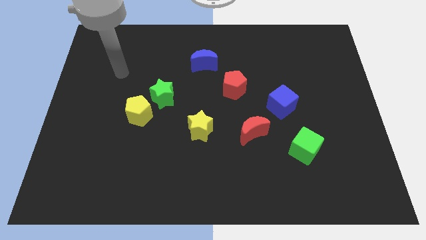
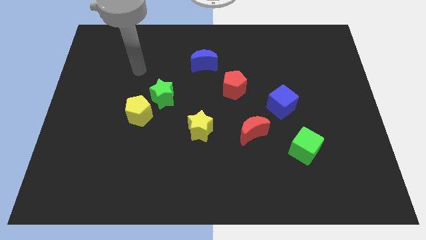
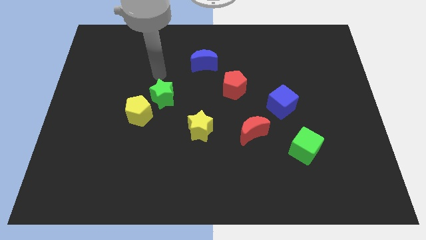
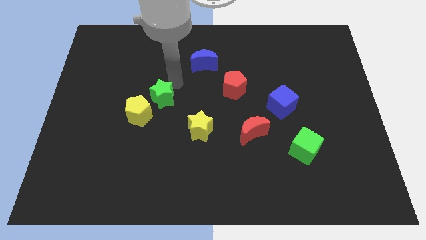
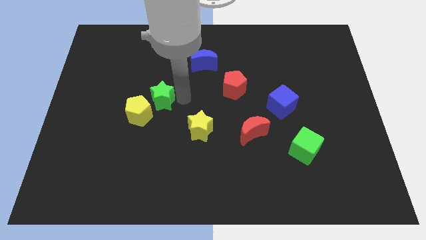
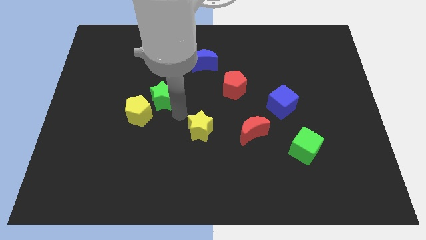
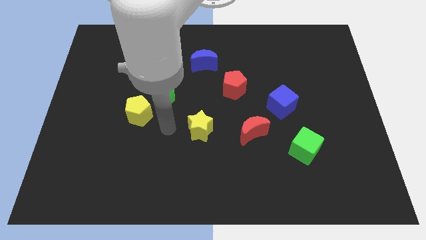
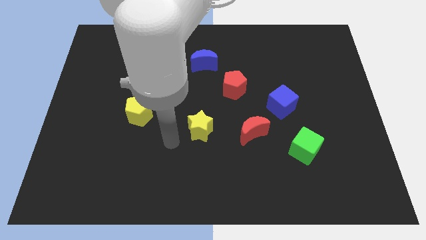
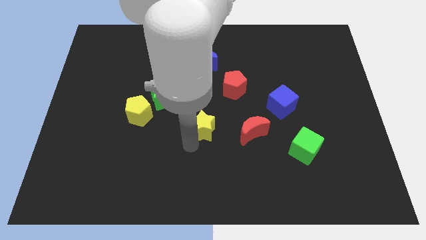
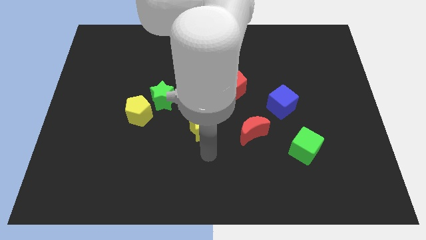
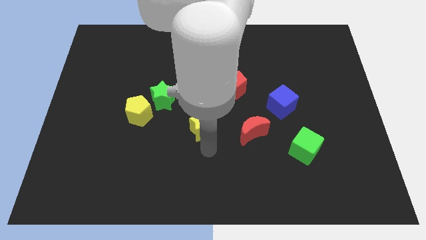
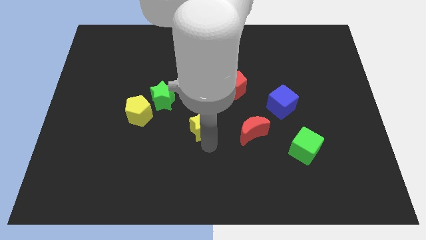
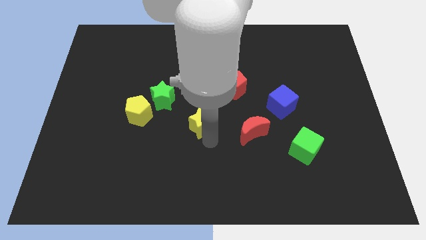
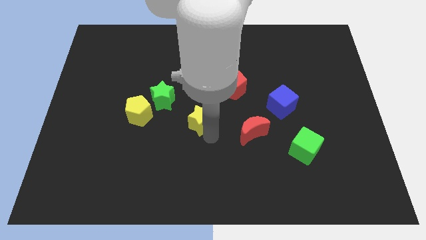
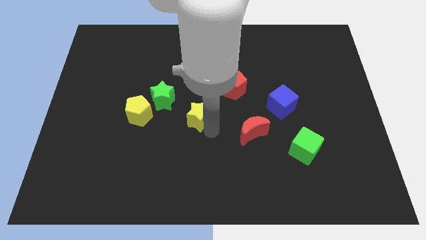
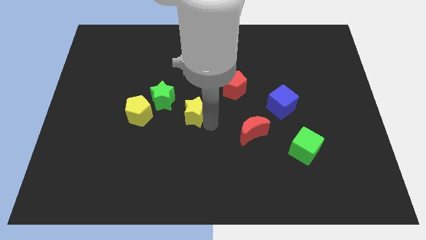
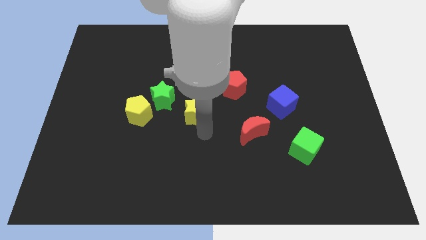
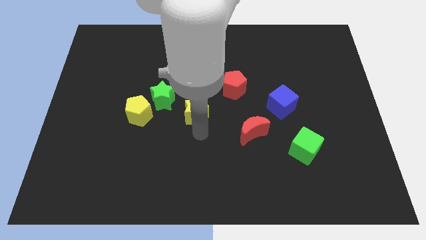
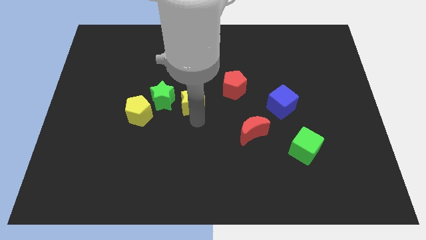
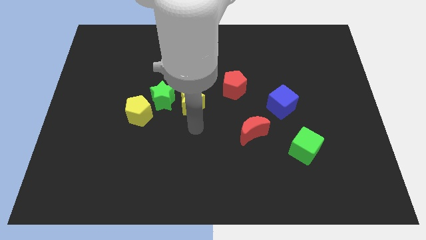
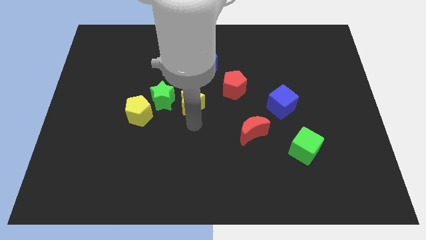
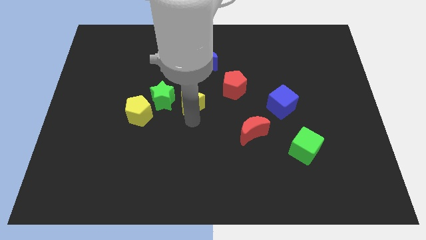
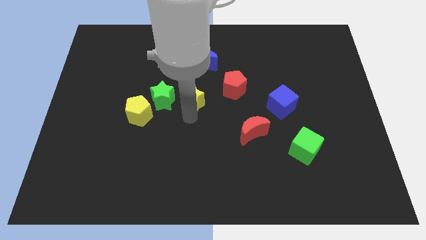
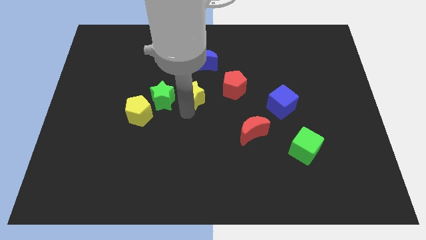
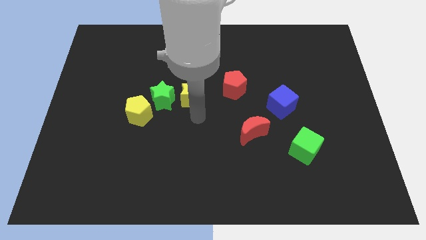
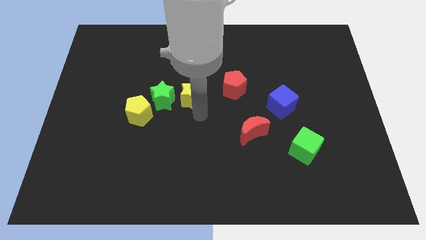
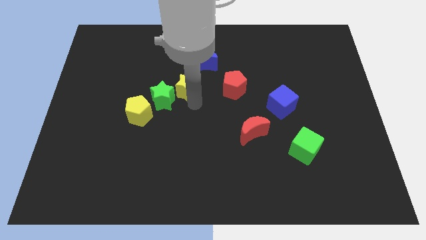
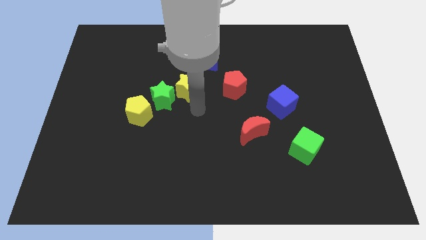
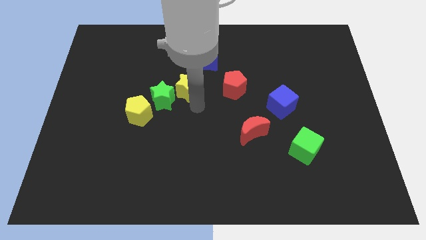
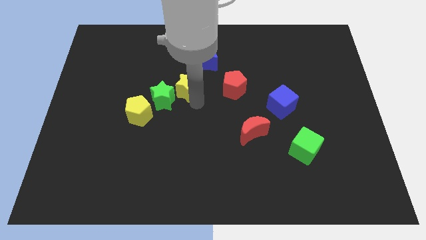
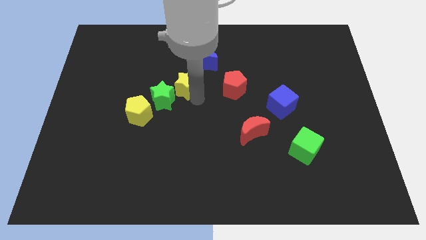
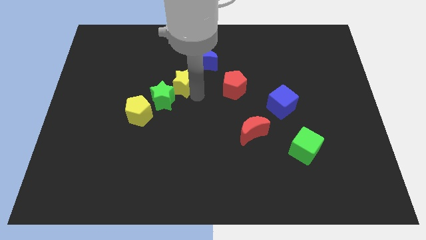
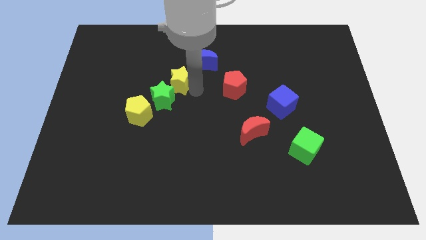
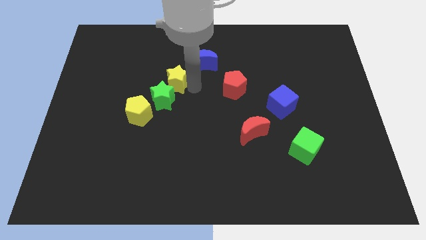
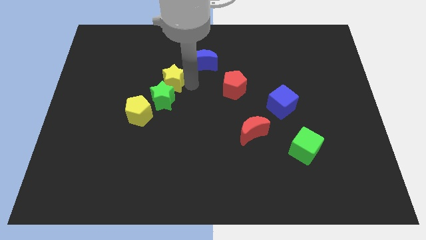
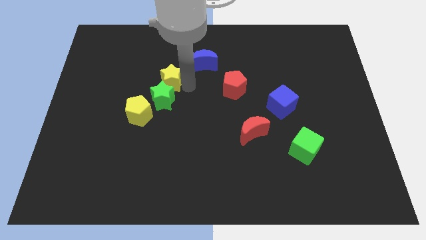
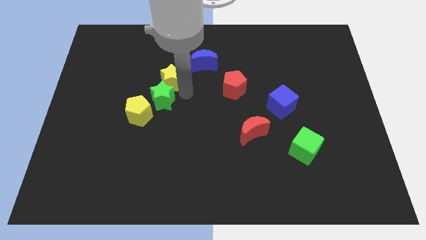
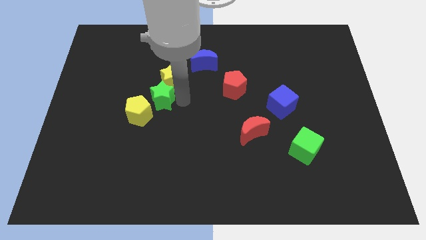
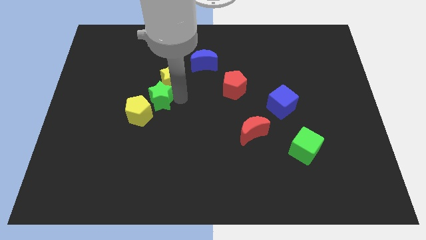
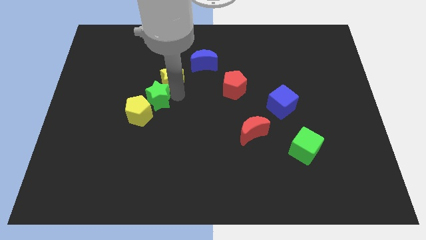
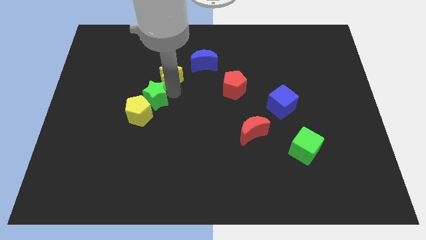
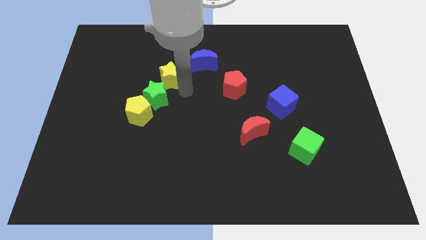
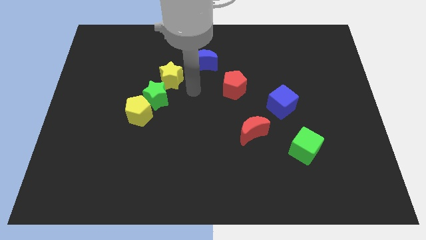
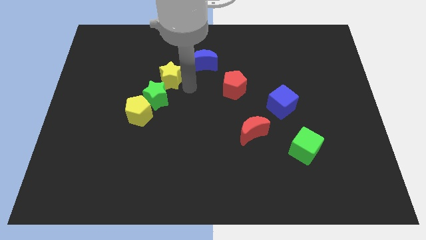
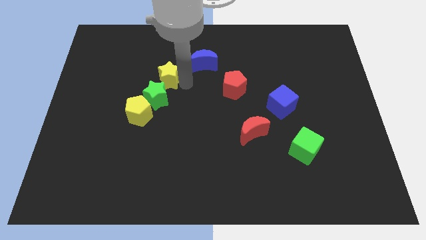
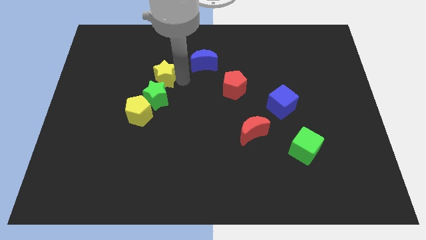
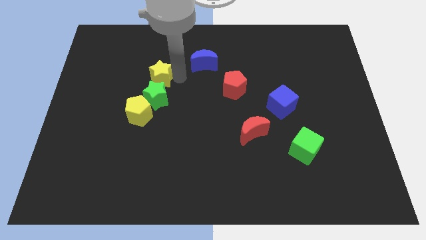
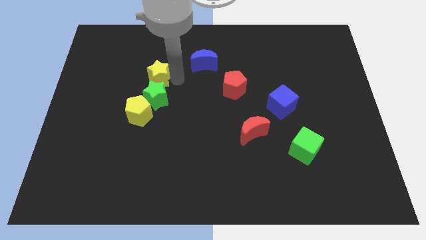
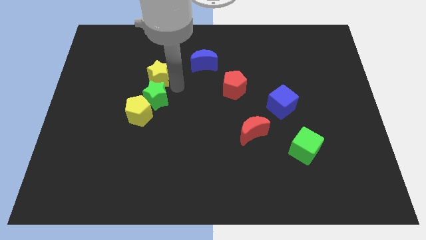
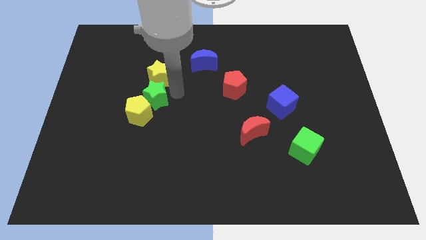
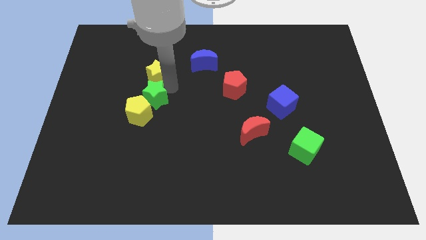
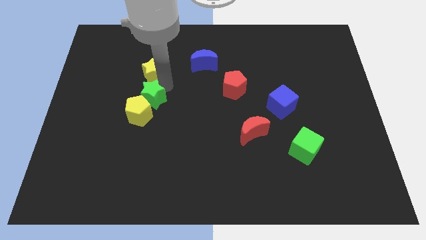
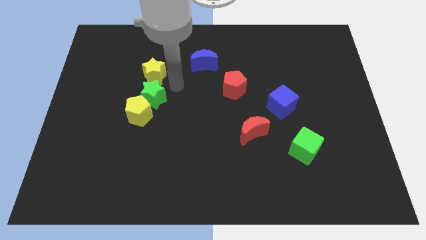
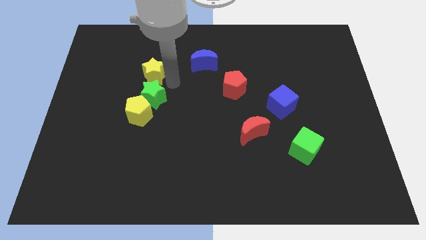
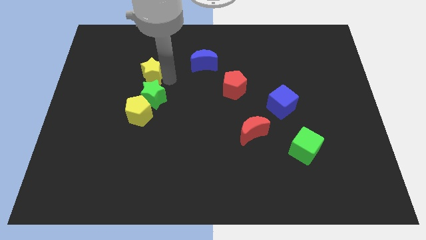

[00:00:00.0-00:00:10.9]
slide the yellow star up and to the left diagonally

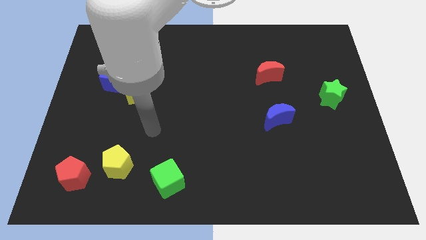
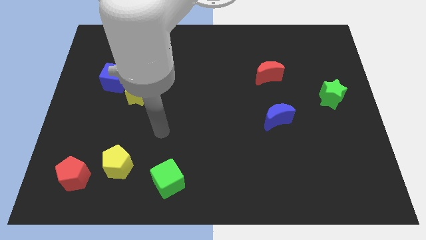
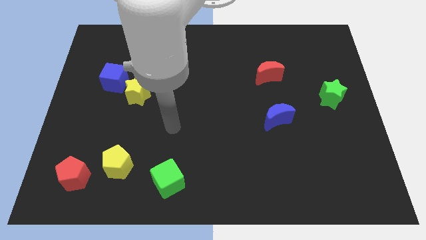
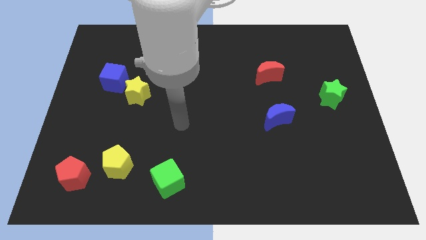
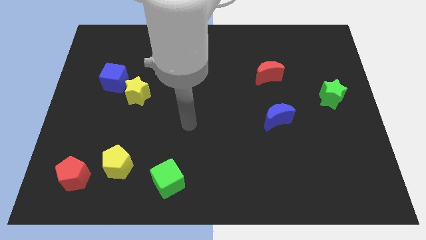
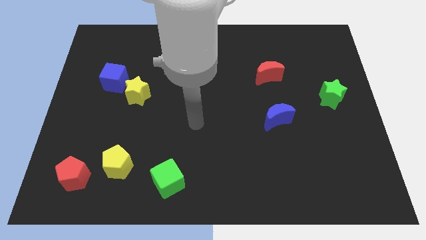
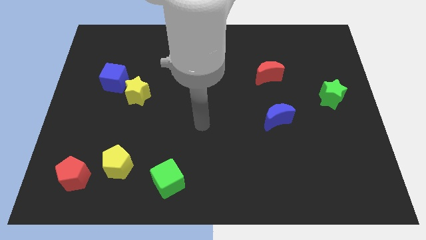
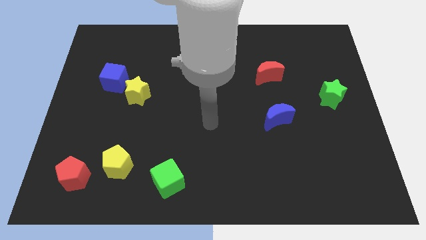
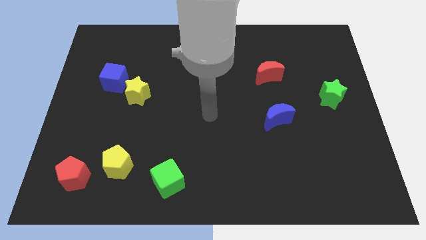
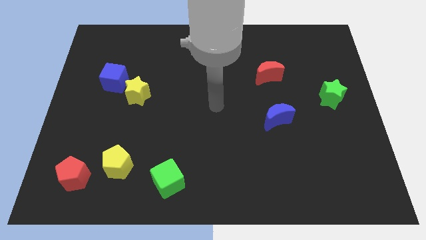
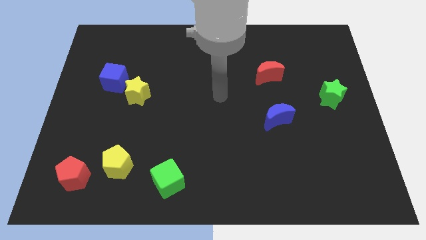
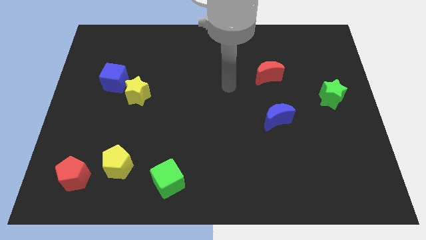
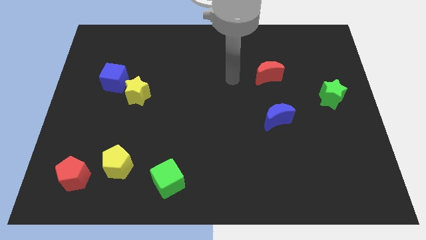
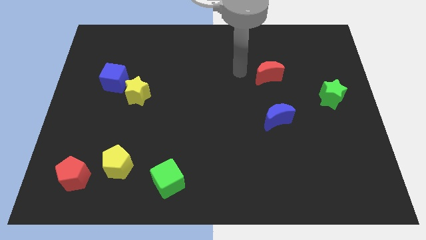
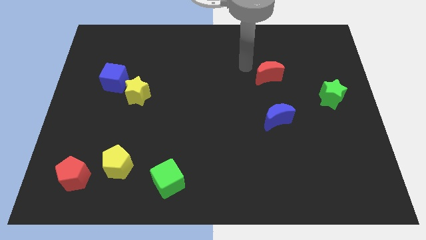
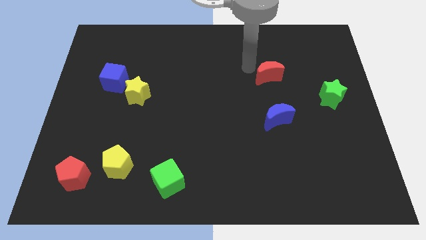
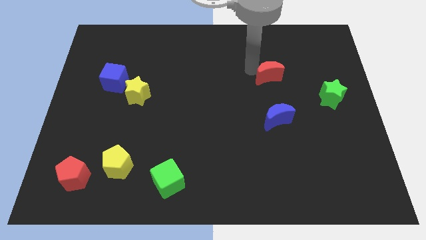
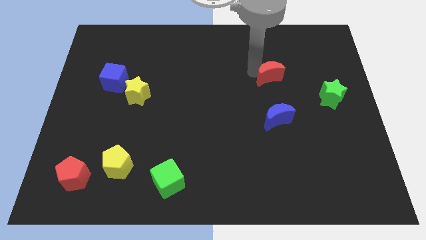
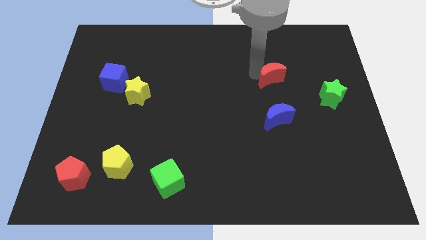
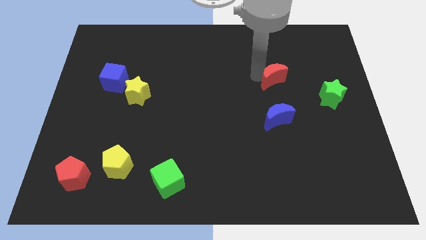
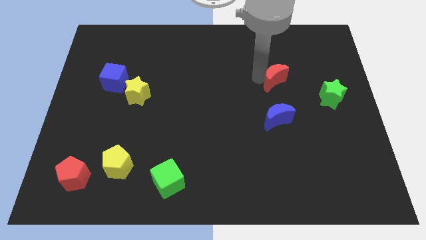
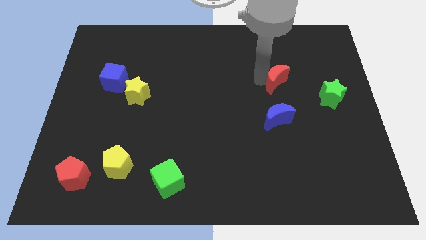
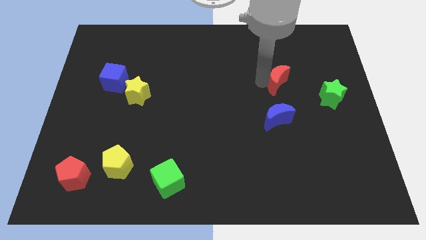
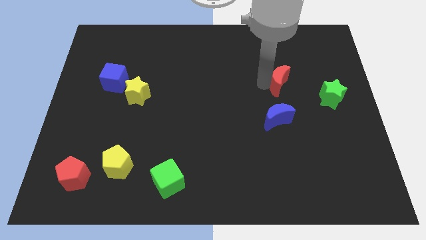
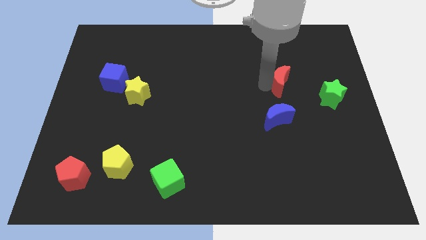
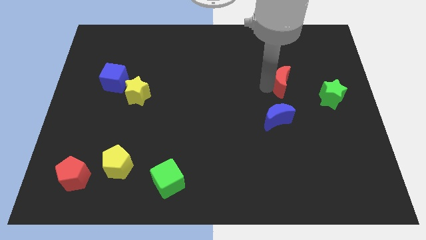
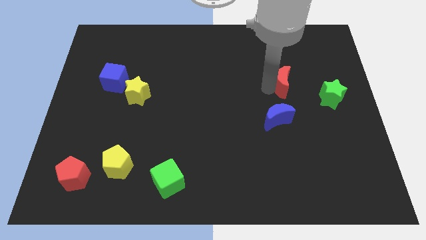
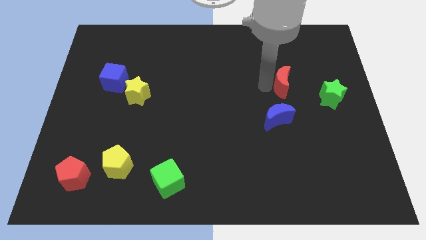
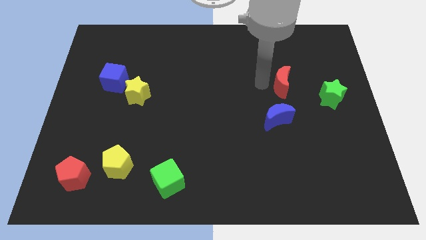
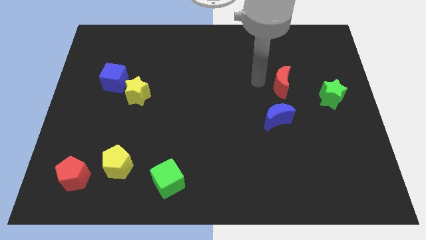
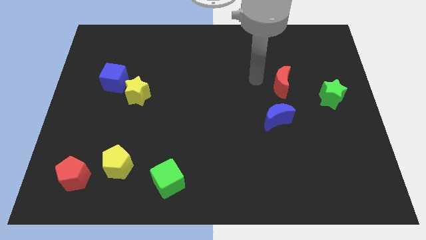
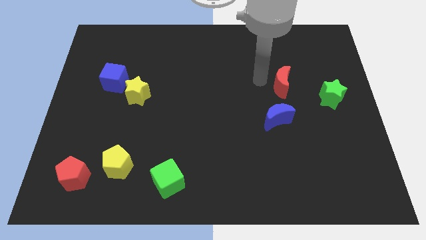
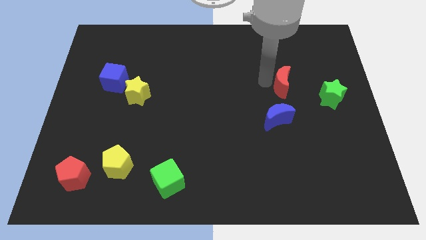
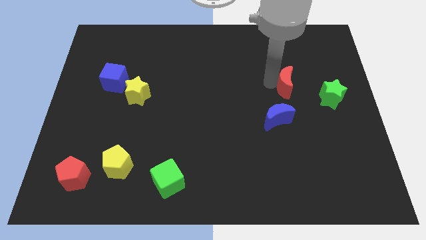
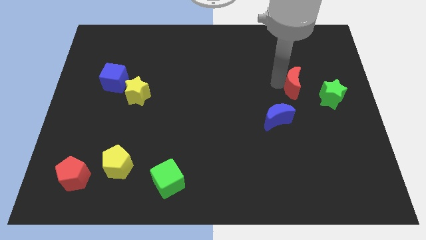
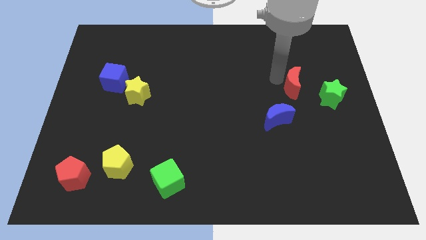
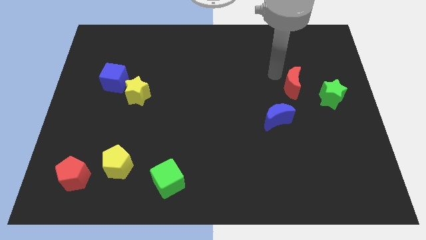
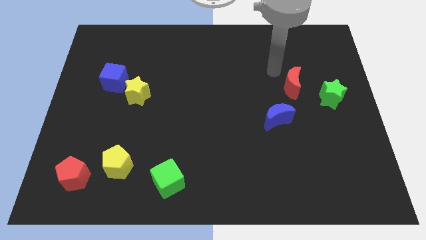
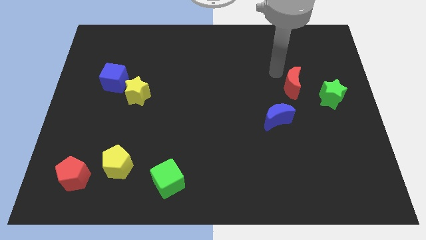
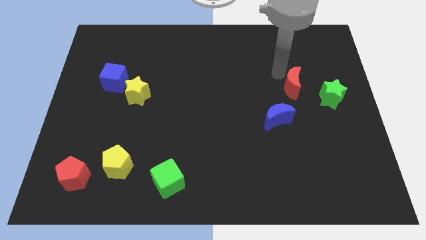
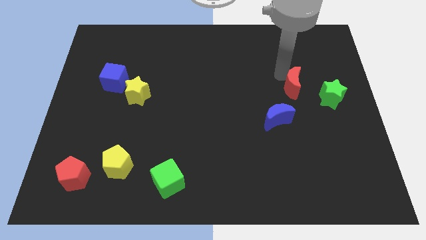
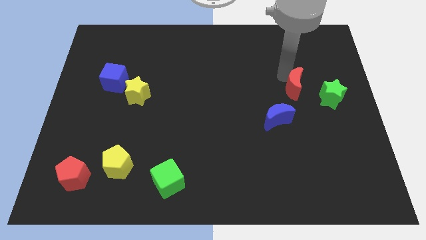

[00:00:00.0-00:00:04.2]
move the red moon down and to the right a bit
